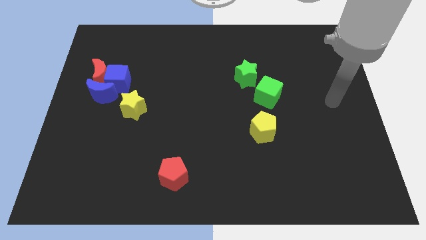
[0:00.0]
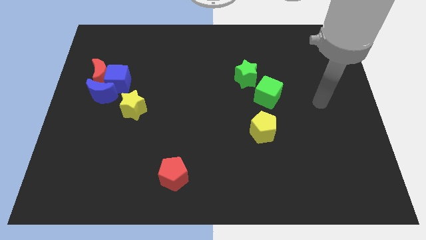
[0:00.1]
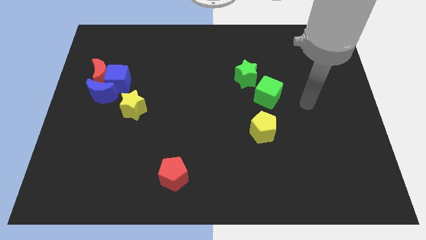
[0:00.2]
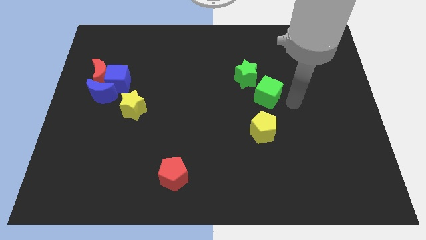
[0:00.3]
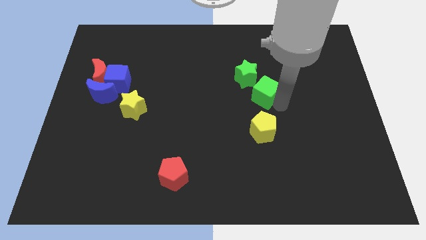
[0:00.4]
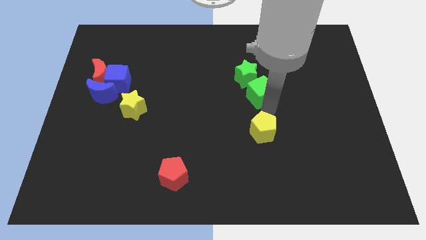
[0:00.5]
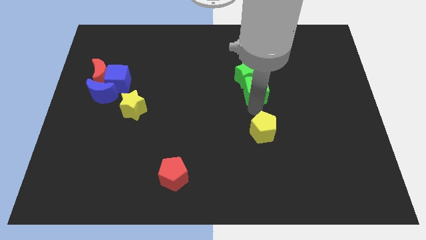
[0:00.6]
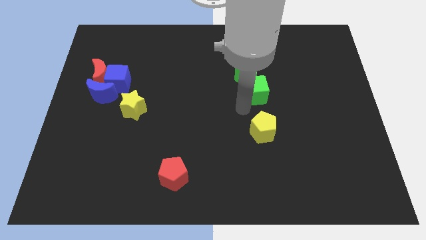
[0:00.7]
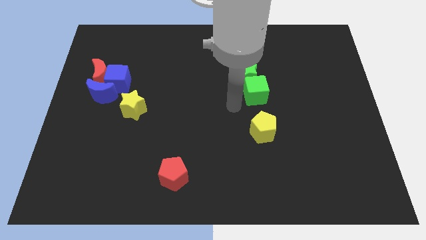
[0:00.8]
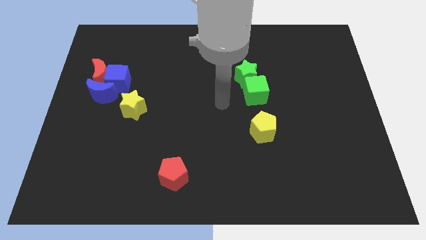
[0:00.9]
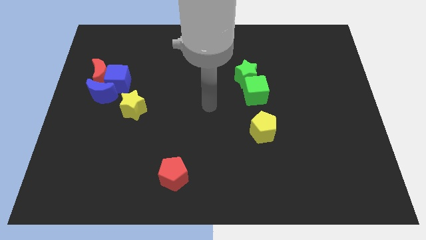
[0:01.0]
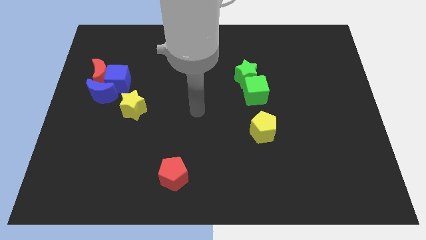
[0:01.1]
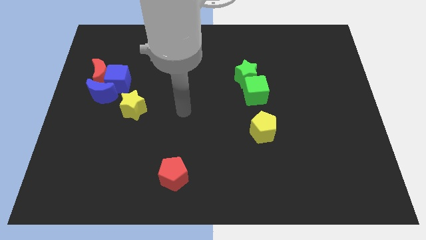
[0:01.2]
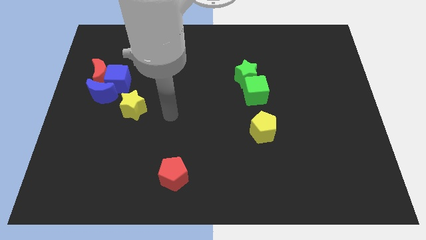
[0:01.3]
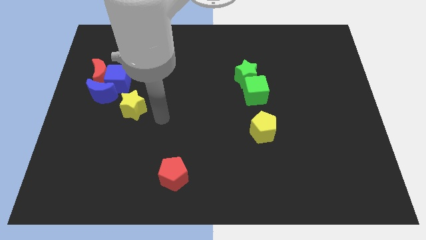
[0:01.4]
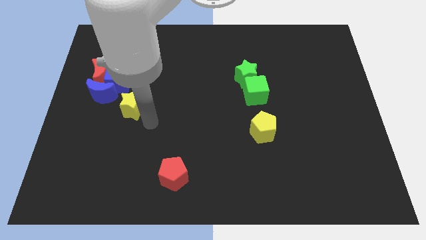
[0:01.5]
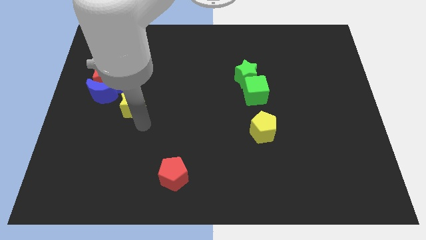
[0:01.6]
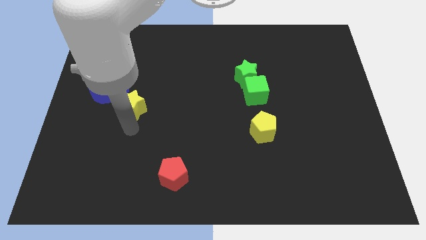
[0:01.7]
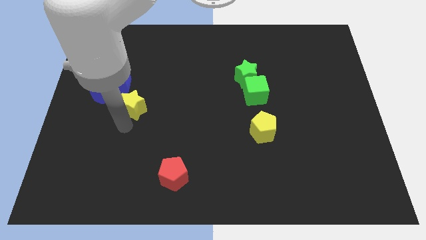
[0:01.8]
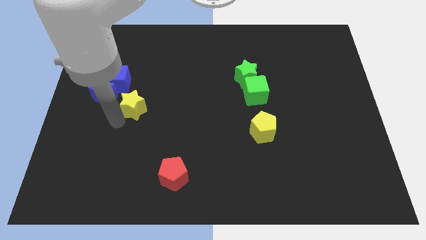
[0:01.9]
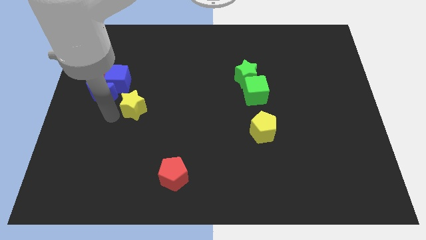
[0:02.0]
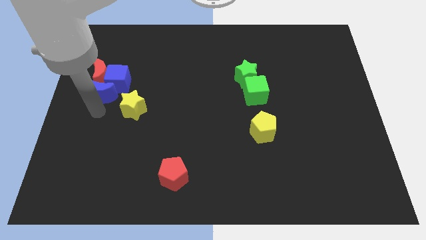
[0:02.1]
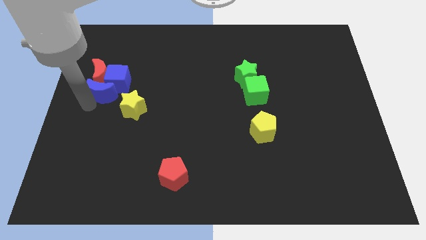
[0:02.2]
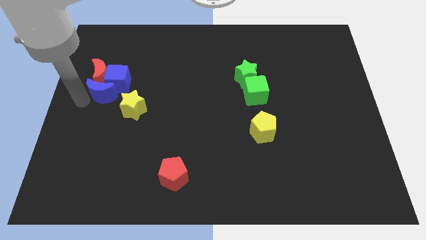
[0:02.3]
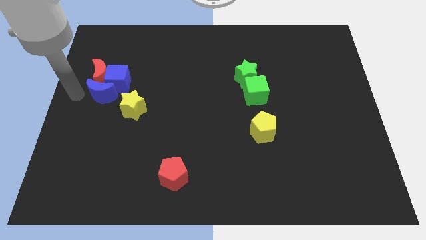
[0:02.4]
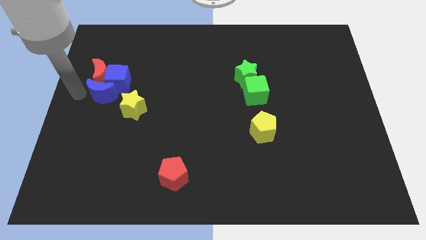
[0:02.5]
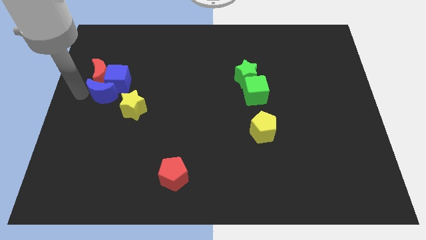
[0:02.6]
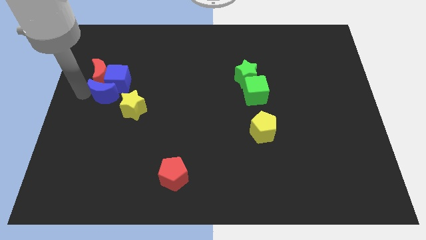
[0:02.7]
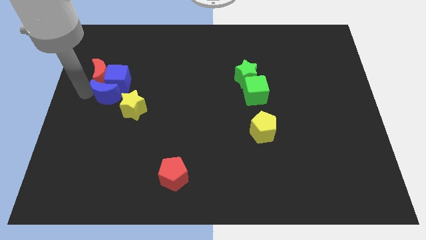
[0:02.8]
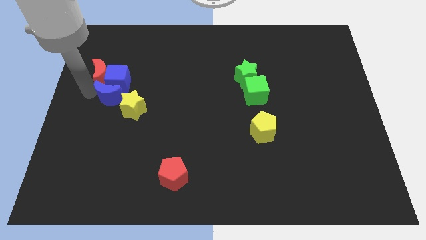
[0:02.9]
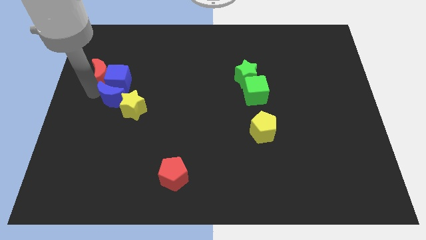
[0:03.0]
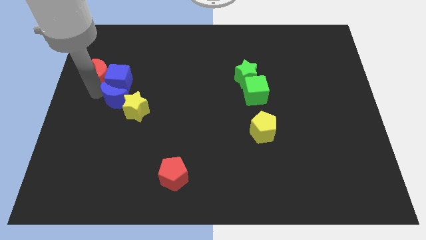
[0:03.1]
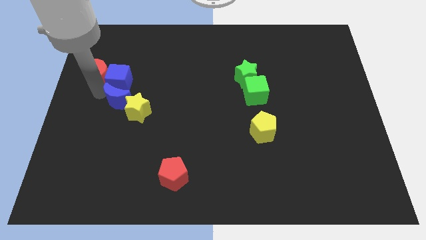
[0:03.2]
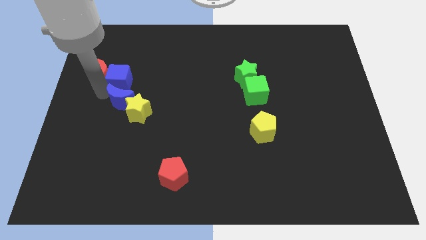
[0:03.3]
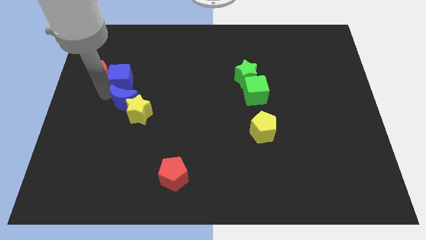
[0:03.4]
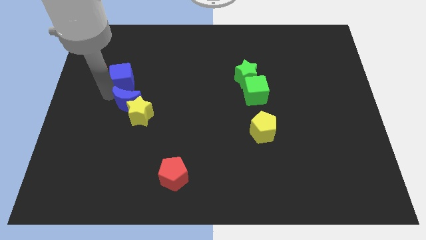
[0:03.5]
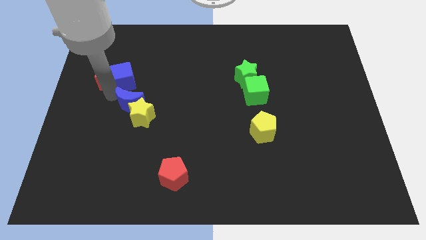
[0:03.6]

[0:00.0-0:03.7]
slide the blue moon right a little

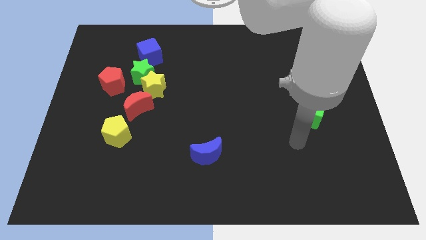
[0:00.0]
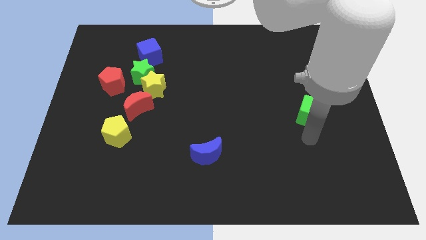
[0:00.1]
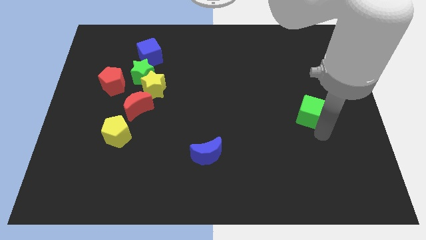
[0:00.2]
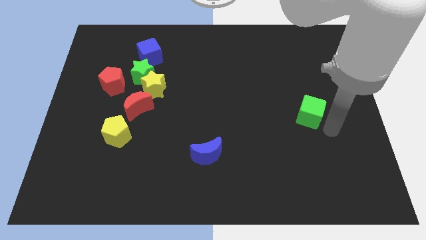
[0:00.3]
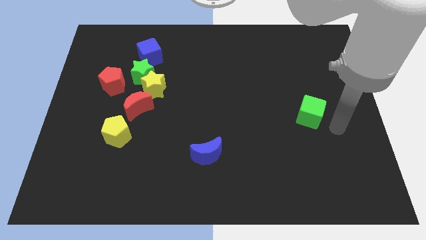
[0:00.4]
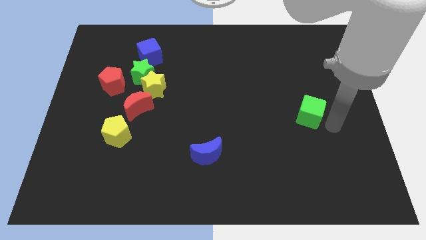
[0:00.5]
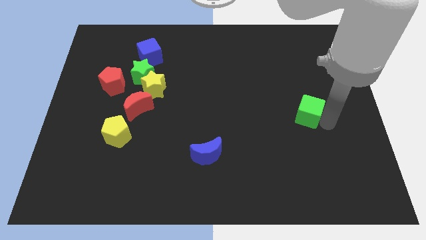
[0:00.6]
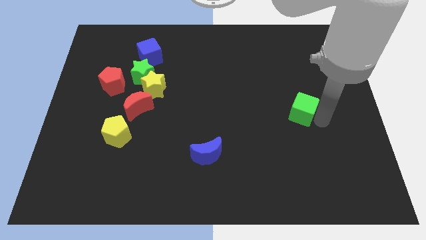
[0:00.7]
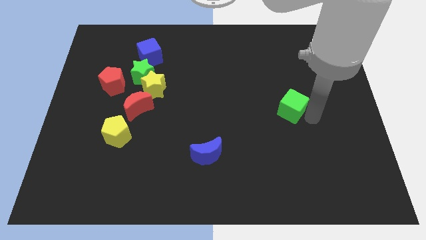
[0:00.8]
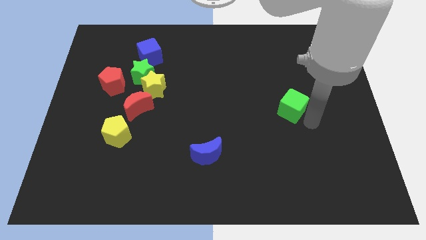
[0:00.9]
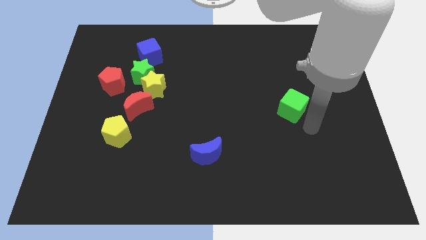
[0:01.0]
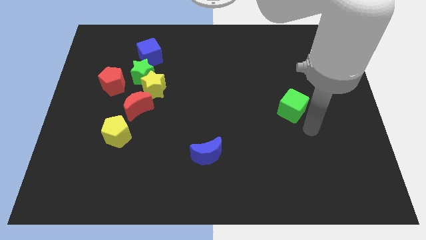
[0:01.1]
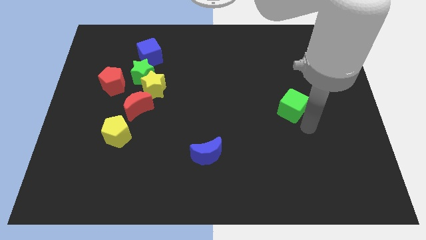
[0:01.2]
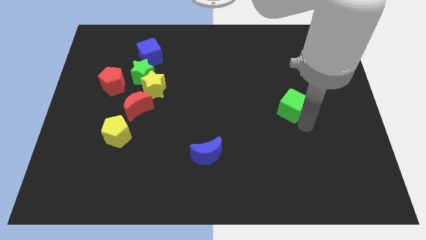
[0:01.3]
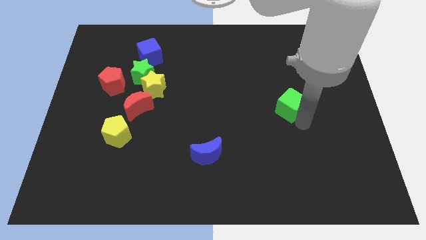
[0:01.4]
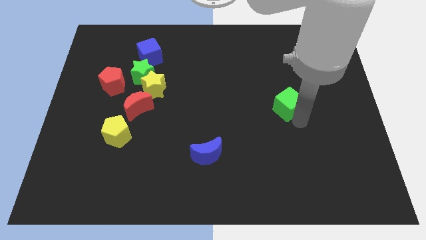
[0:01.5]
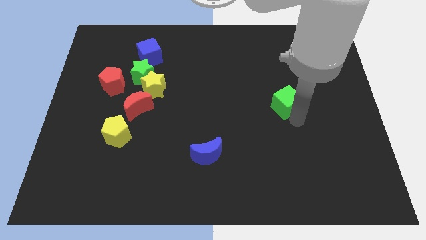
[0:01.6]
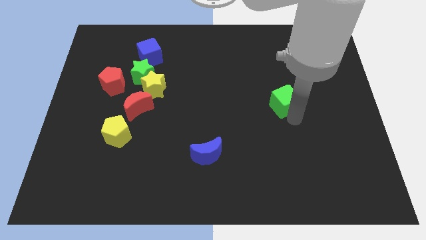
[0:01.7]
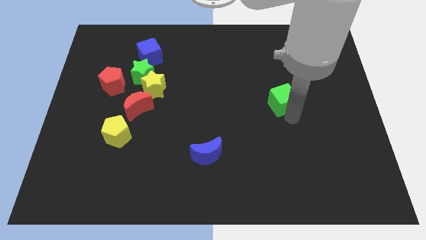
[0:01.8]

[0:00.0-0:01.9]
slightly push the green cube up and left

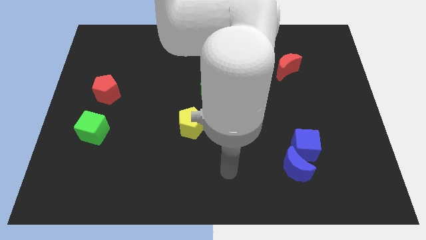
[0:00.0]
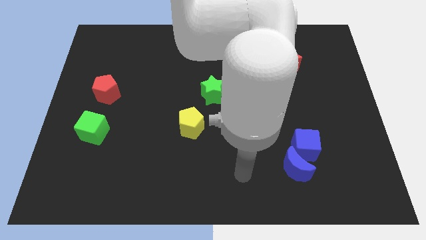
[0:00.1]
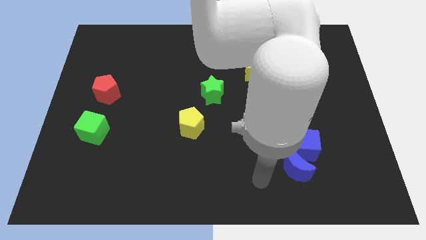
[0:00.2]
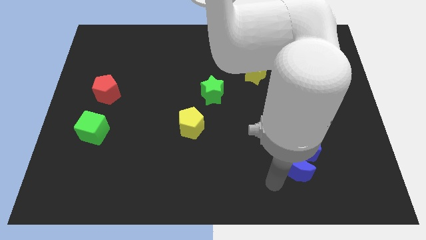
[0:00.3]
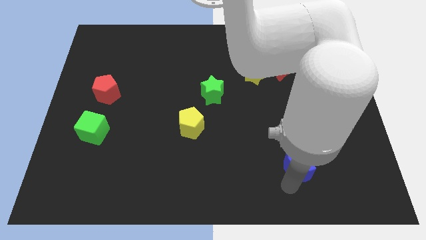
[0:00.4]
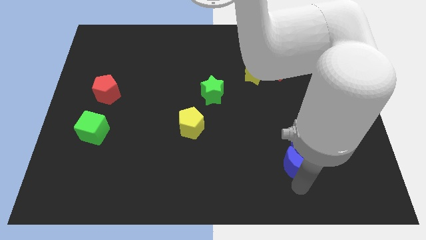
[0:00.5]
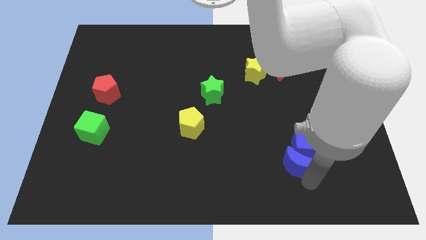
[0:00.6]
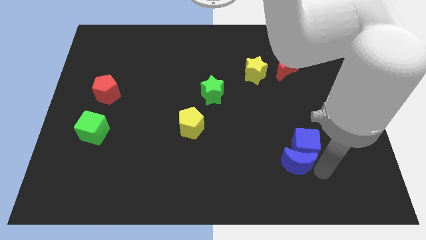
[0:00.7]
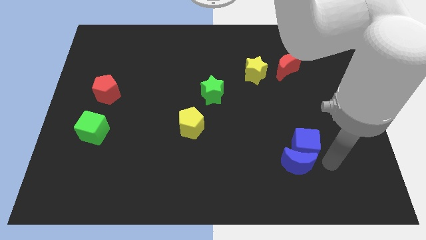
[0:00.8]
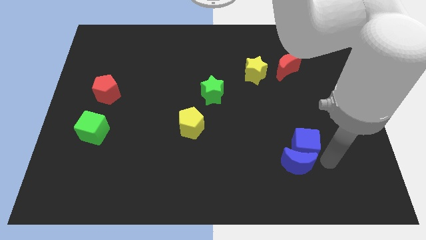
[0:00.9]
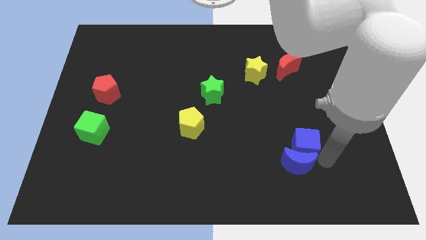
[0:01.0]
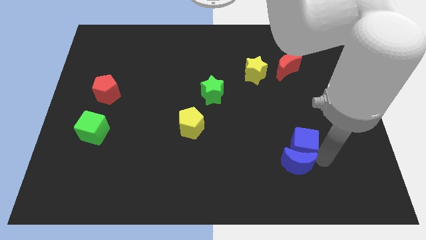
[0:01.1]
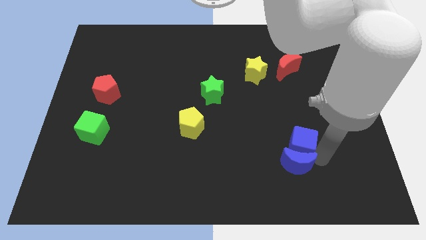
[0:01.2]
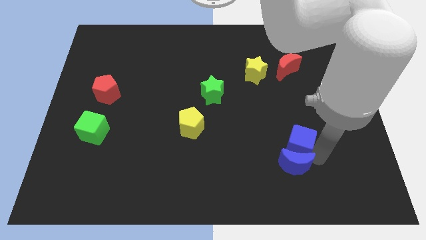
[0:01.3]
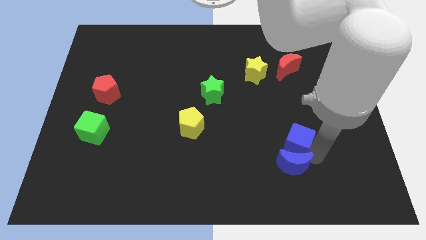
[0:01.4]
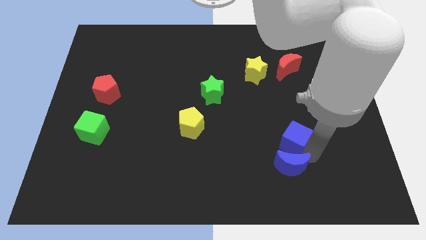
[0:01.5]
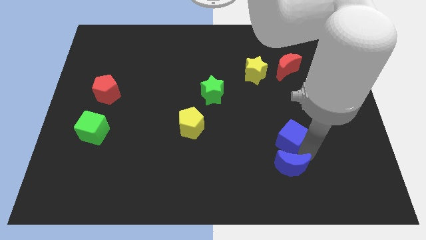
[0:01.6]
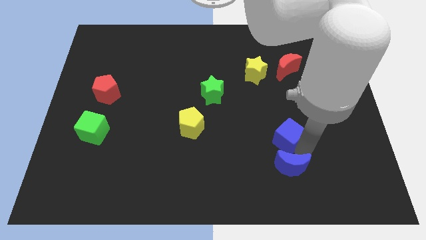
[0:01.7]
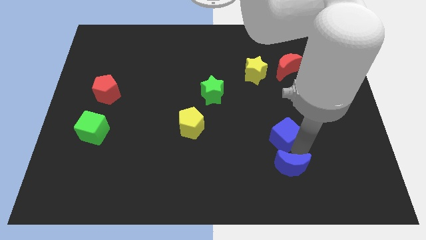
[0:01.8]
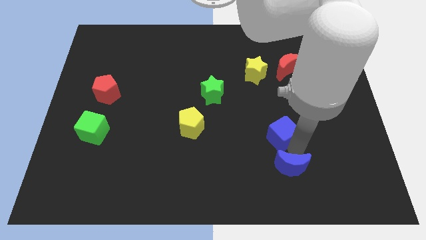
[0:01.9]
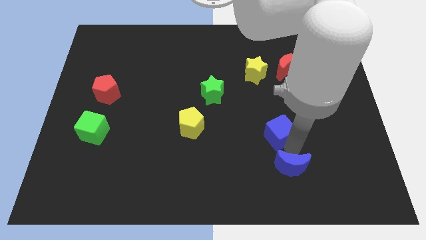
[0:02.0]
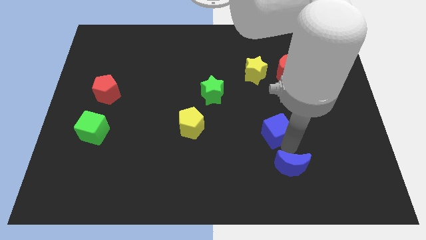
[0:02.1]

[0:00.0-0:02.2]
slide the blue cube upwards and to the left diagonally a bit

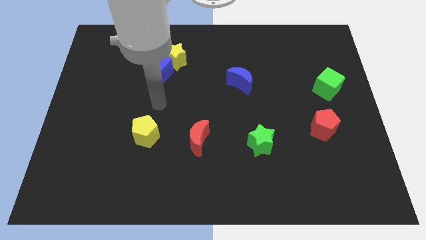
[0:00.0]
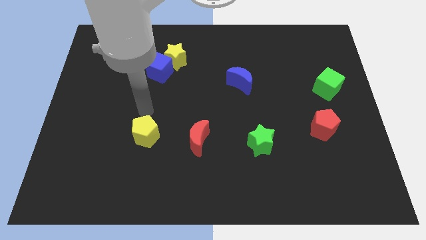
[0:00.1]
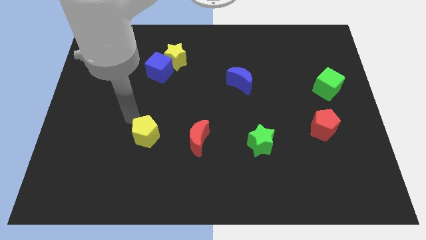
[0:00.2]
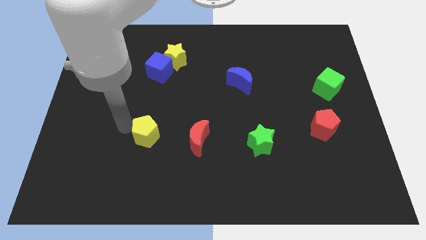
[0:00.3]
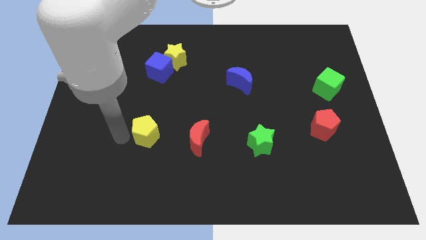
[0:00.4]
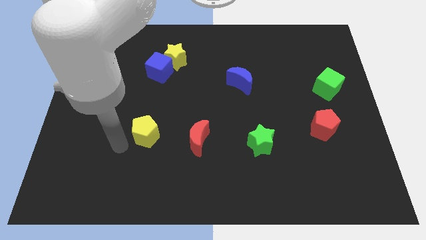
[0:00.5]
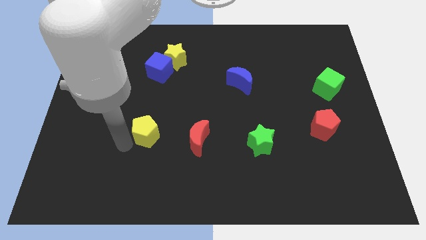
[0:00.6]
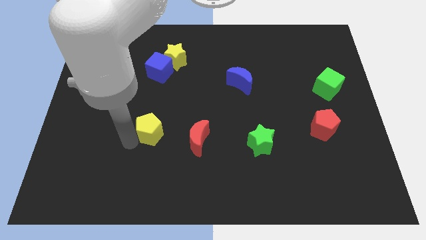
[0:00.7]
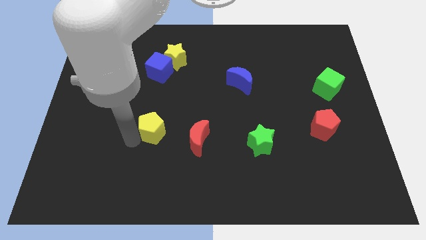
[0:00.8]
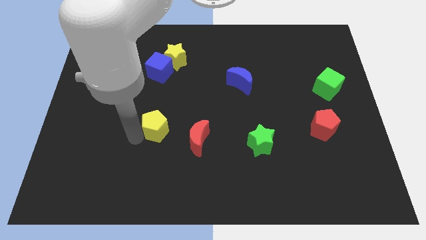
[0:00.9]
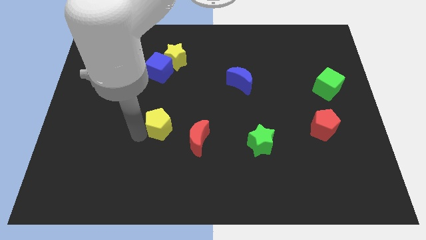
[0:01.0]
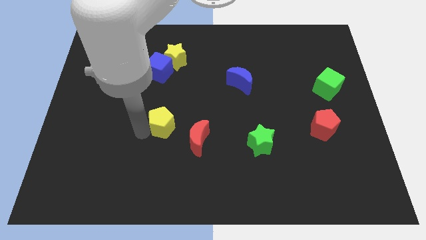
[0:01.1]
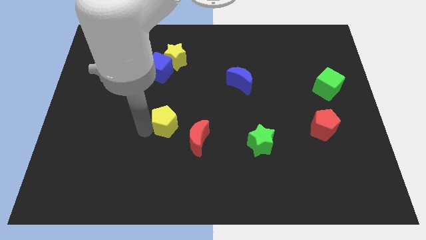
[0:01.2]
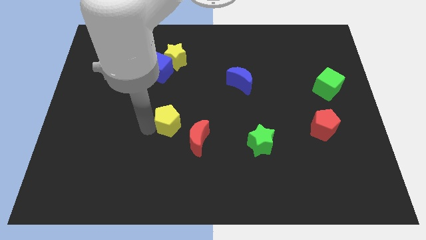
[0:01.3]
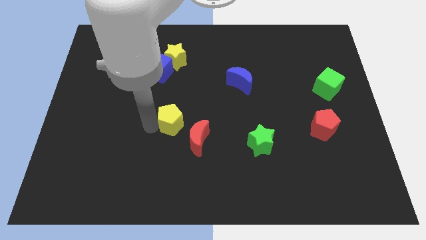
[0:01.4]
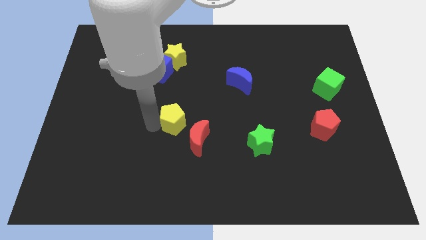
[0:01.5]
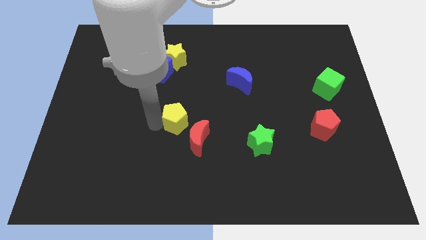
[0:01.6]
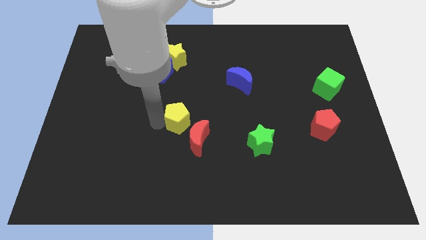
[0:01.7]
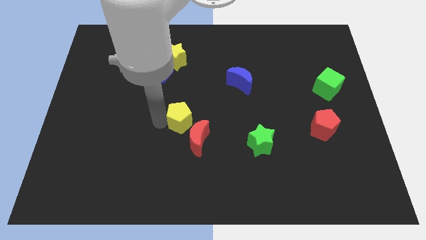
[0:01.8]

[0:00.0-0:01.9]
slightly move the yellow pentagon to the right
